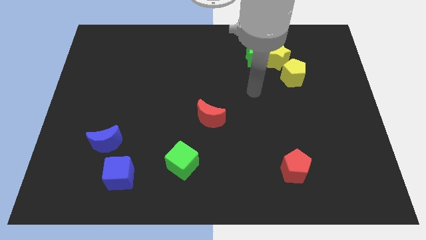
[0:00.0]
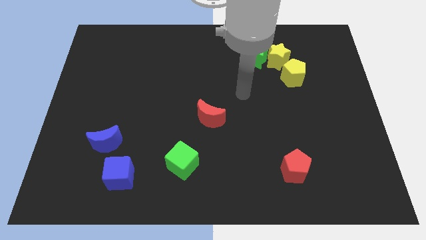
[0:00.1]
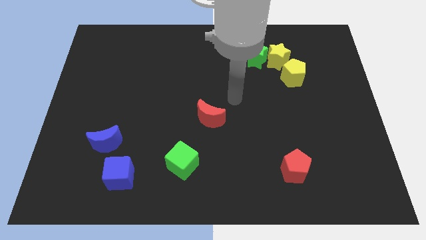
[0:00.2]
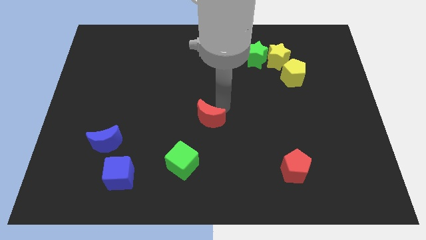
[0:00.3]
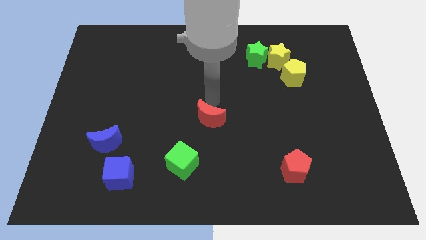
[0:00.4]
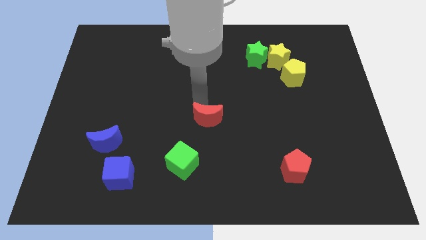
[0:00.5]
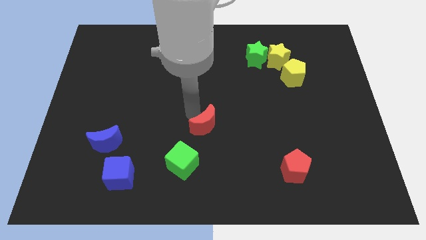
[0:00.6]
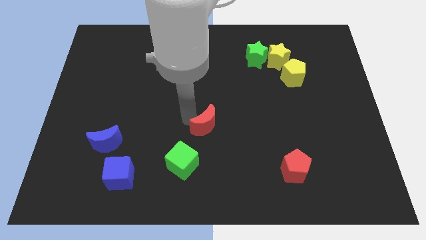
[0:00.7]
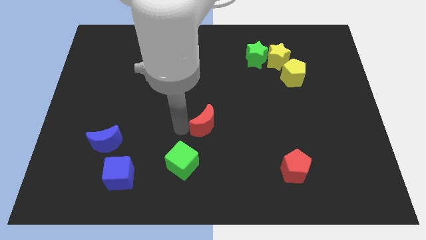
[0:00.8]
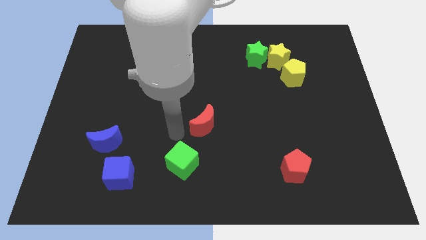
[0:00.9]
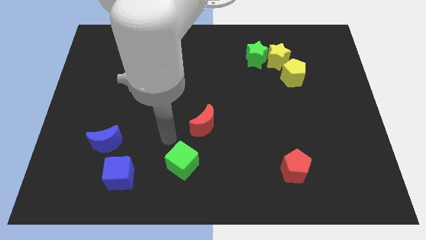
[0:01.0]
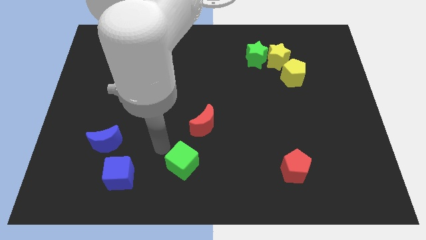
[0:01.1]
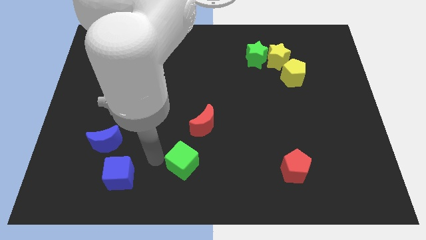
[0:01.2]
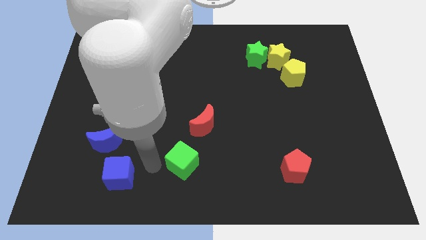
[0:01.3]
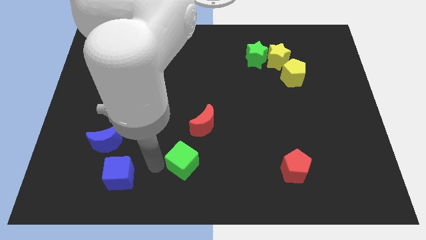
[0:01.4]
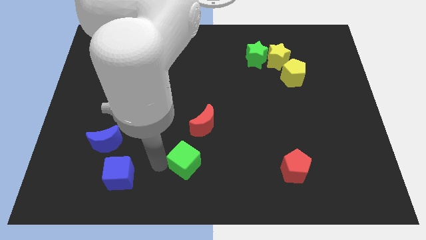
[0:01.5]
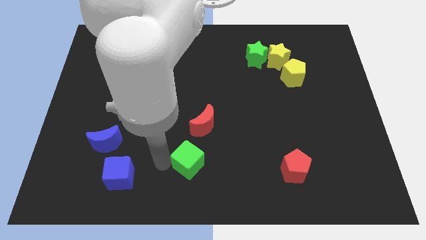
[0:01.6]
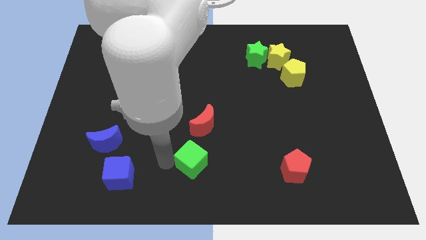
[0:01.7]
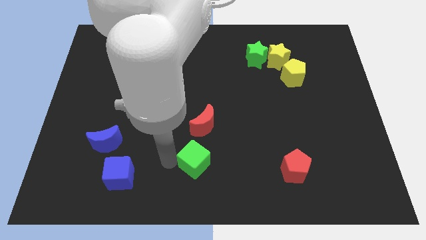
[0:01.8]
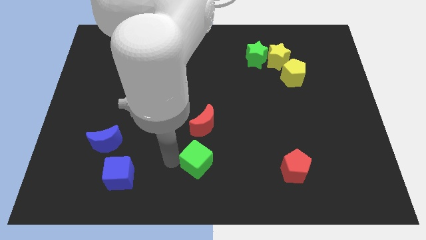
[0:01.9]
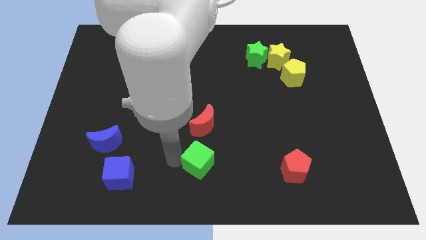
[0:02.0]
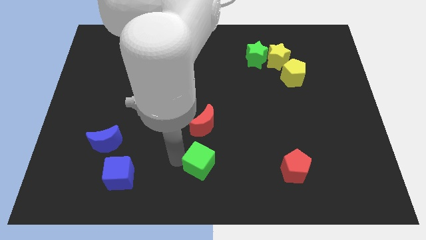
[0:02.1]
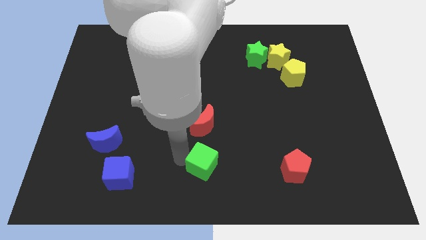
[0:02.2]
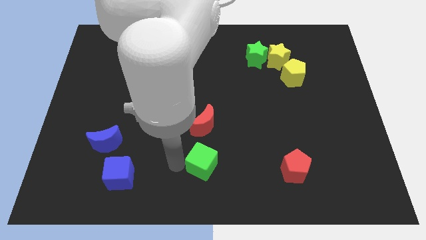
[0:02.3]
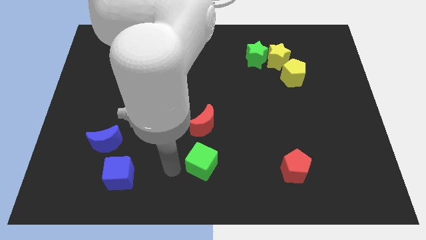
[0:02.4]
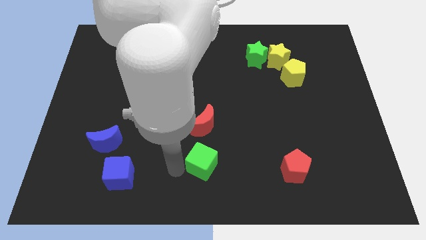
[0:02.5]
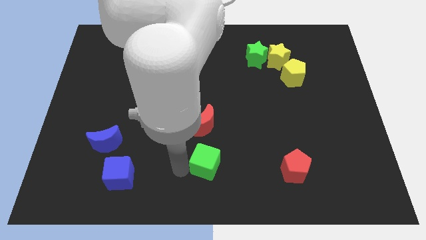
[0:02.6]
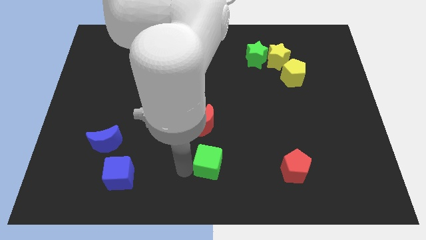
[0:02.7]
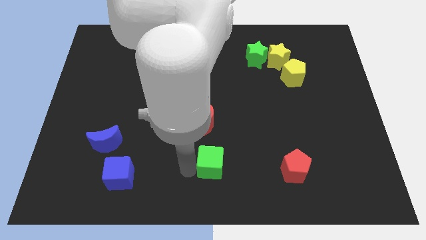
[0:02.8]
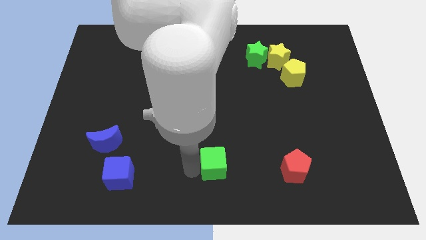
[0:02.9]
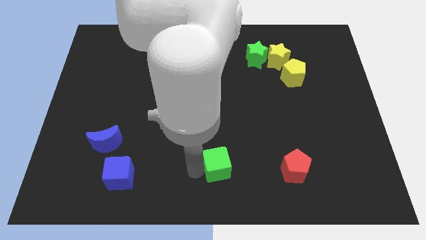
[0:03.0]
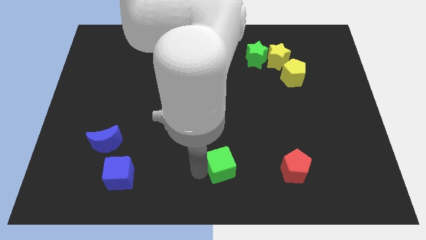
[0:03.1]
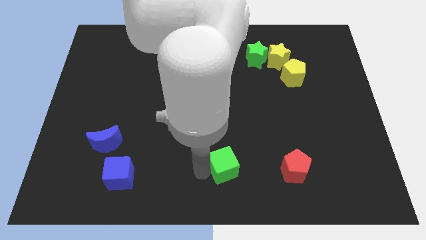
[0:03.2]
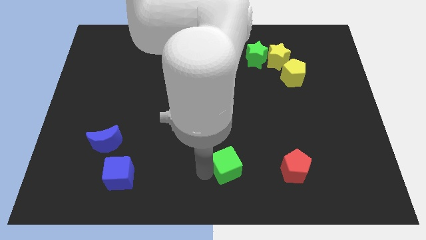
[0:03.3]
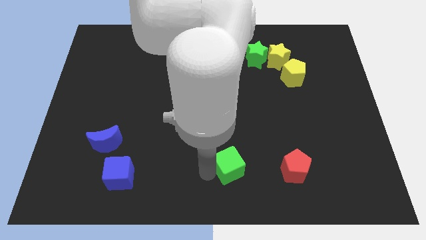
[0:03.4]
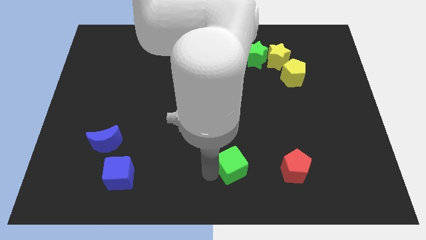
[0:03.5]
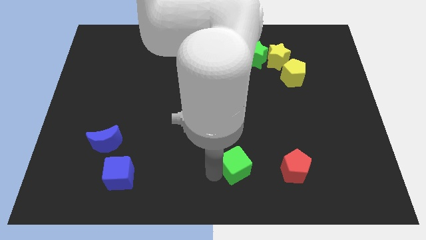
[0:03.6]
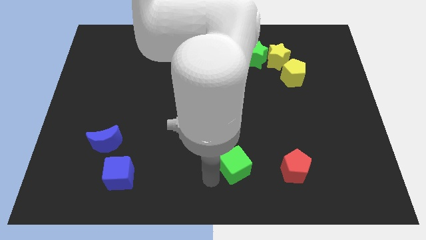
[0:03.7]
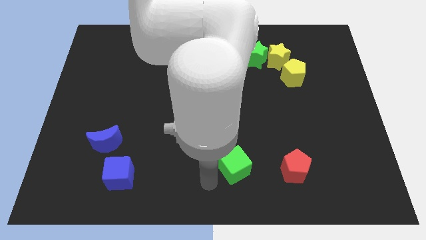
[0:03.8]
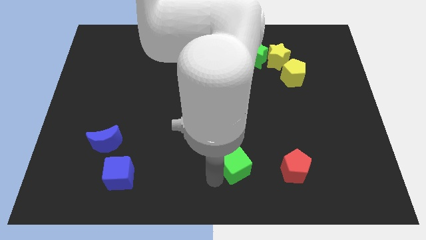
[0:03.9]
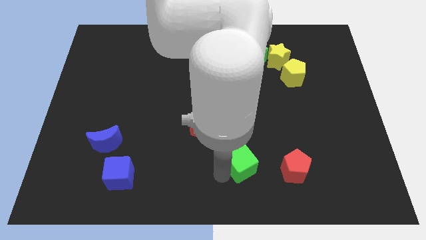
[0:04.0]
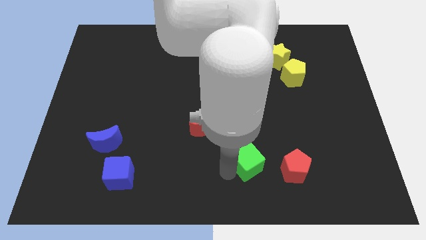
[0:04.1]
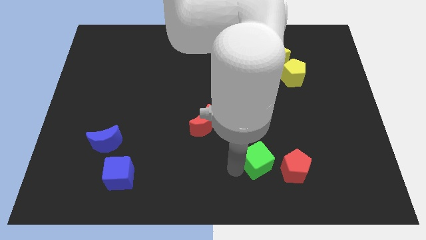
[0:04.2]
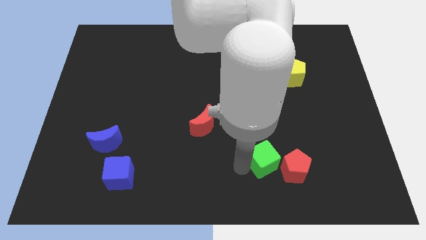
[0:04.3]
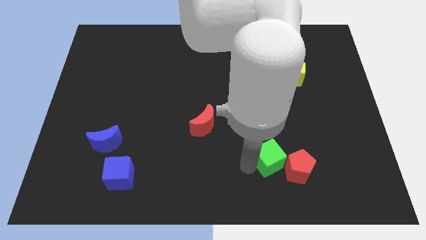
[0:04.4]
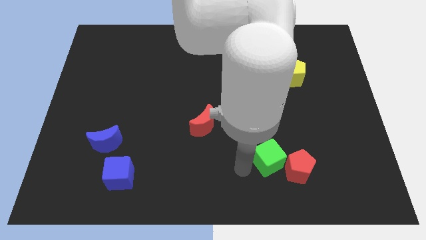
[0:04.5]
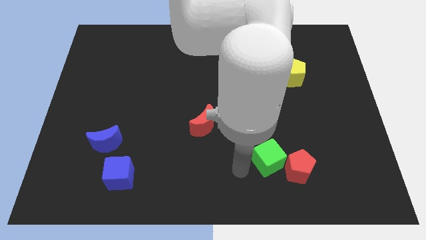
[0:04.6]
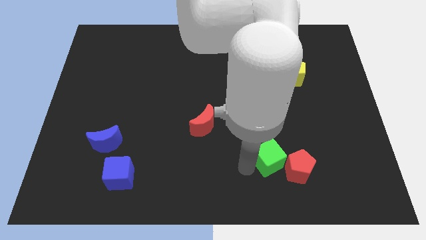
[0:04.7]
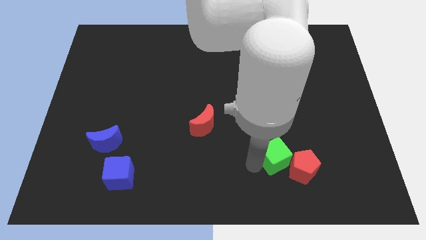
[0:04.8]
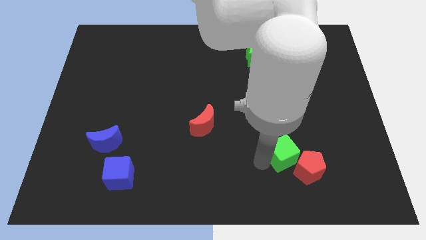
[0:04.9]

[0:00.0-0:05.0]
move the green cube right

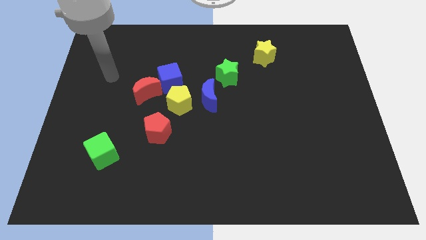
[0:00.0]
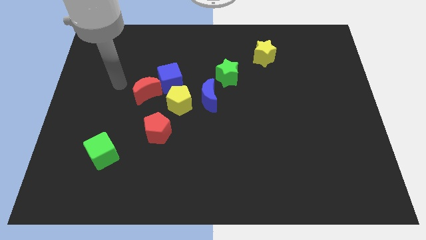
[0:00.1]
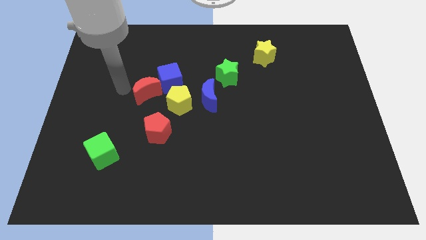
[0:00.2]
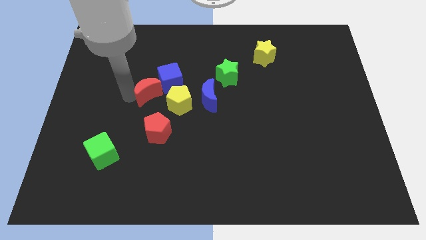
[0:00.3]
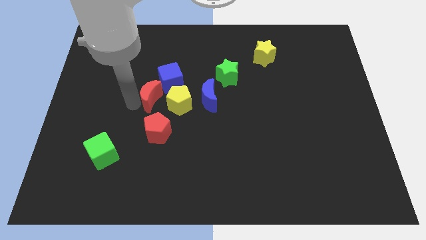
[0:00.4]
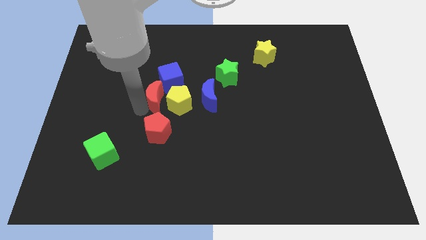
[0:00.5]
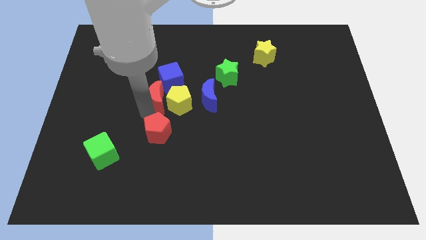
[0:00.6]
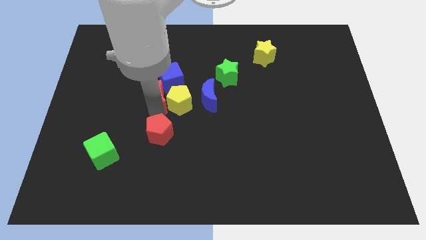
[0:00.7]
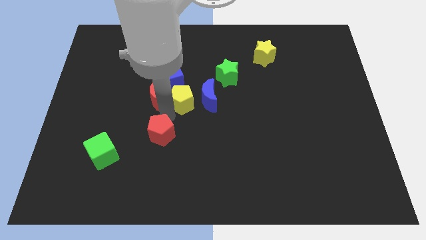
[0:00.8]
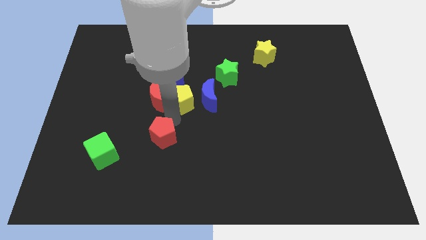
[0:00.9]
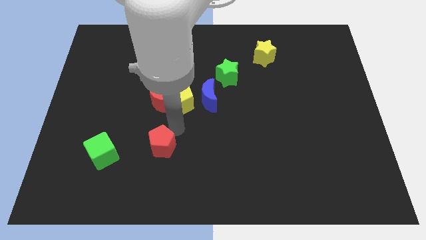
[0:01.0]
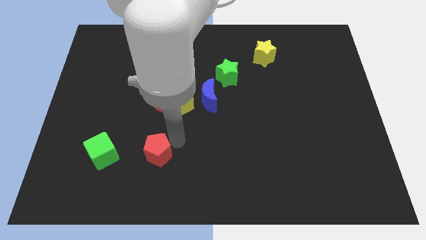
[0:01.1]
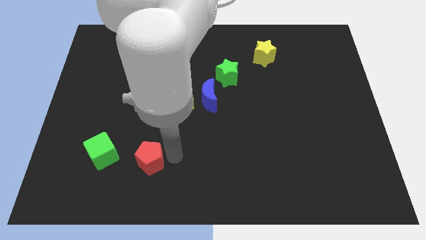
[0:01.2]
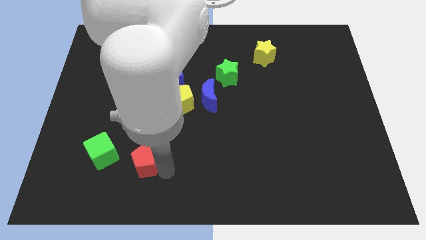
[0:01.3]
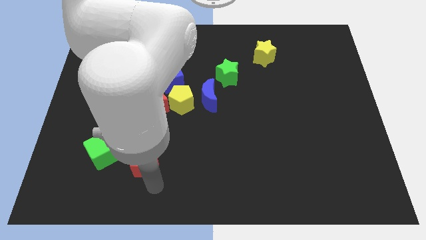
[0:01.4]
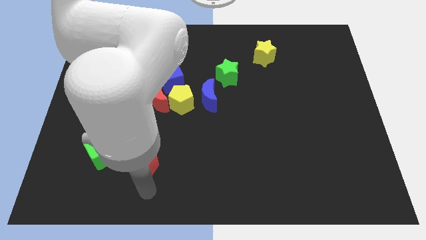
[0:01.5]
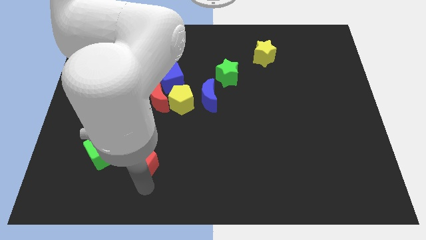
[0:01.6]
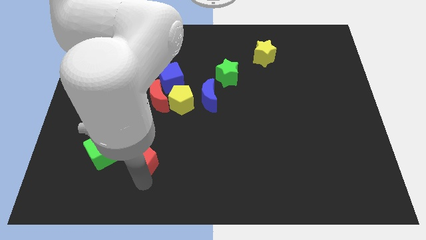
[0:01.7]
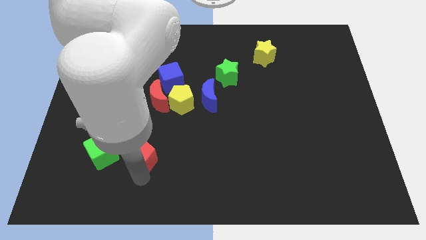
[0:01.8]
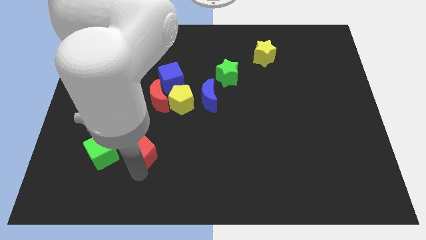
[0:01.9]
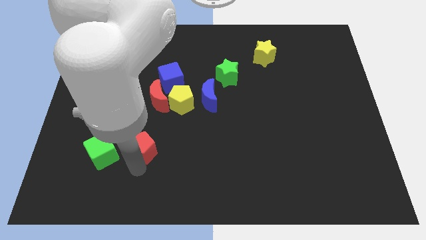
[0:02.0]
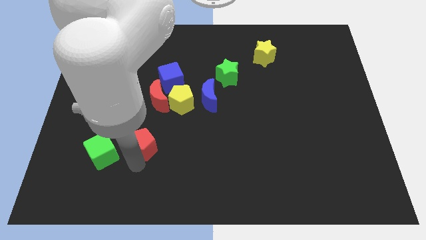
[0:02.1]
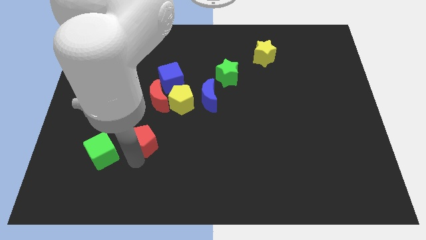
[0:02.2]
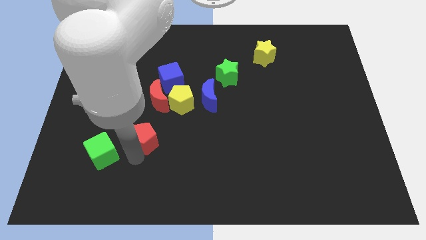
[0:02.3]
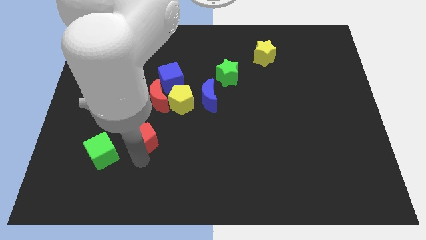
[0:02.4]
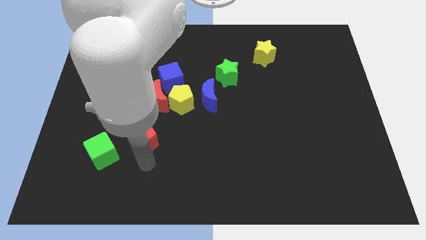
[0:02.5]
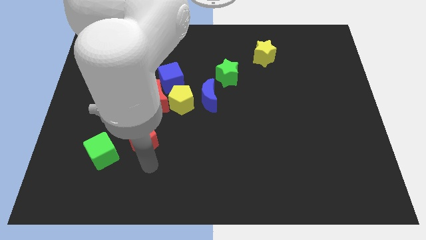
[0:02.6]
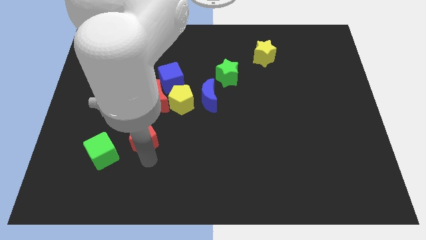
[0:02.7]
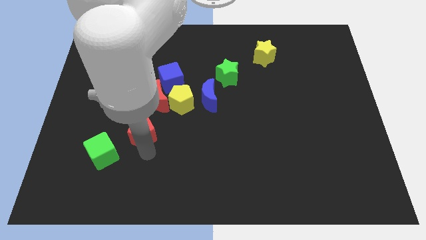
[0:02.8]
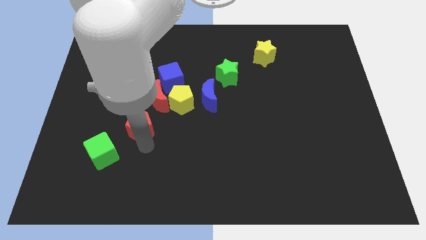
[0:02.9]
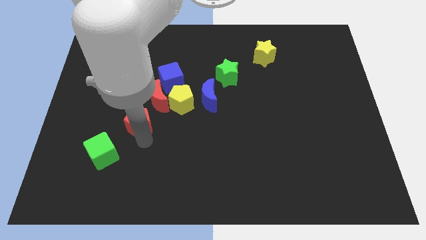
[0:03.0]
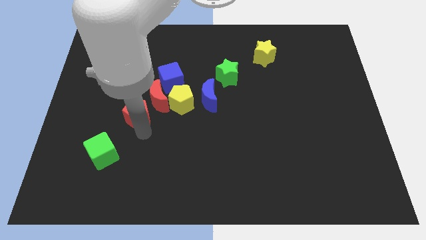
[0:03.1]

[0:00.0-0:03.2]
move the red pentagon up and left a bit

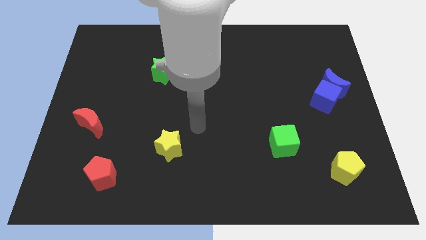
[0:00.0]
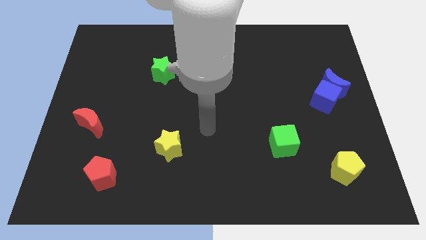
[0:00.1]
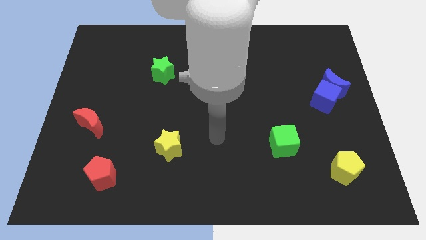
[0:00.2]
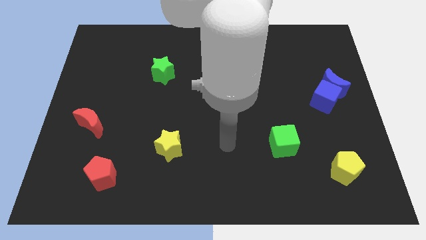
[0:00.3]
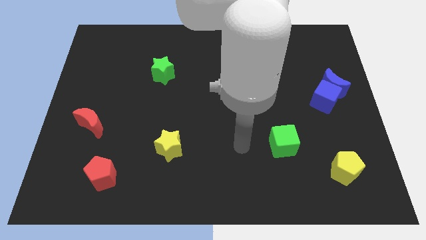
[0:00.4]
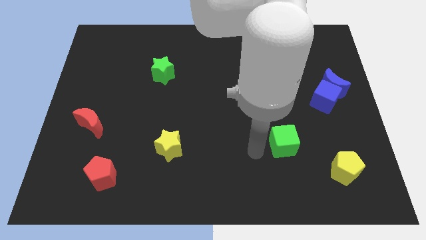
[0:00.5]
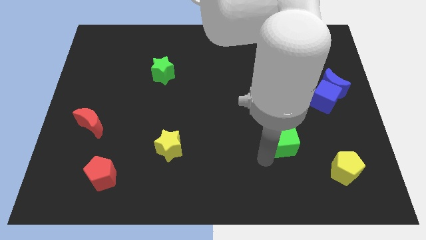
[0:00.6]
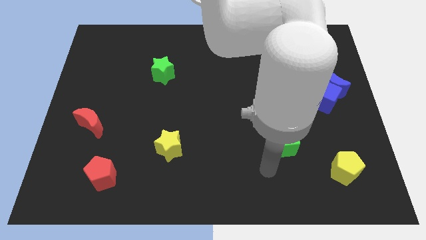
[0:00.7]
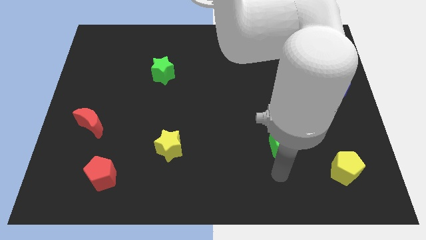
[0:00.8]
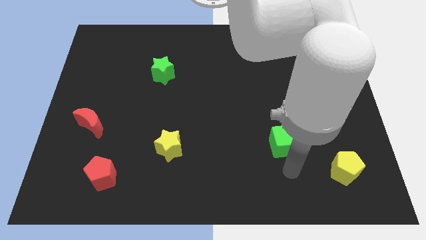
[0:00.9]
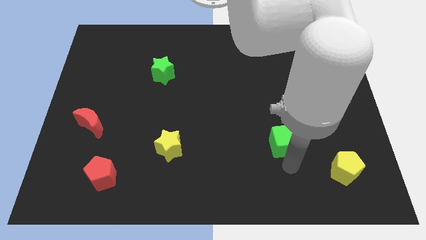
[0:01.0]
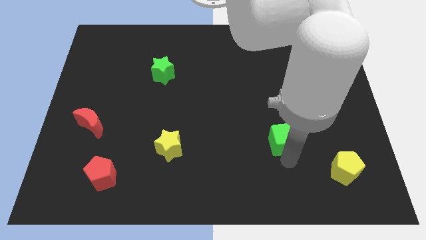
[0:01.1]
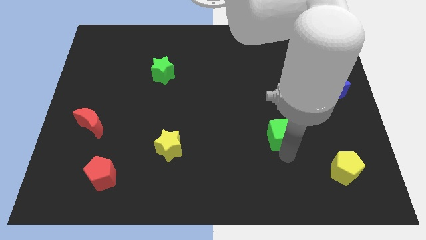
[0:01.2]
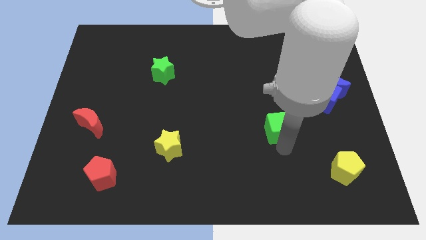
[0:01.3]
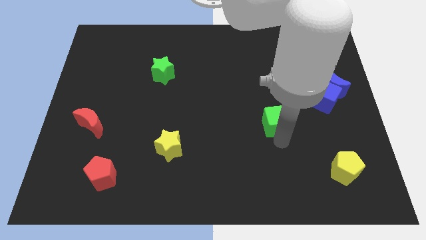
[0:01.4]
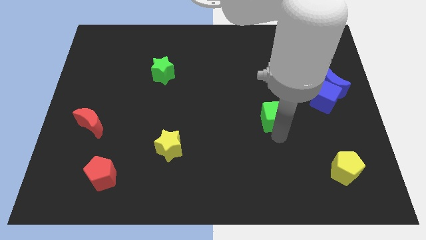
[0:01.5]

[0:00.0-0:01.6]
move the green cube upwards a little bit
